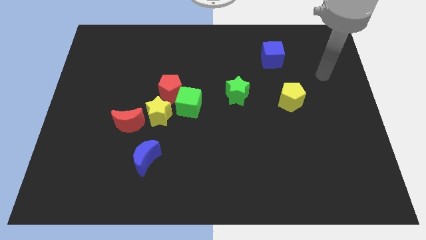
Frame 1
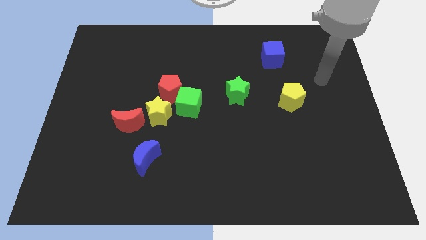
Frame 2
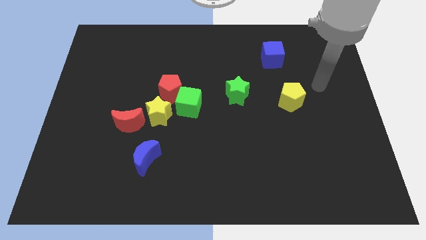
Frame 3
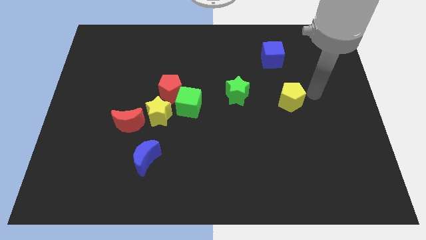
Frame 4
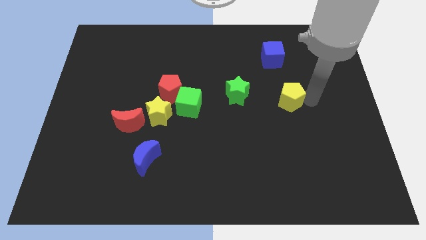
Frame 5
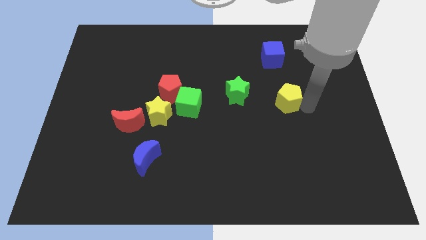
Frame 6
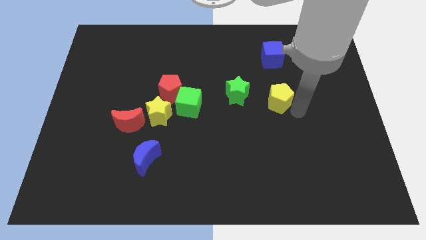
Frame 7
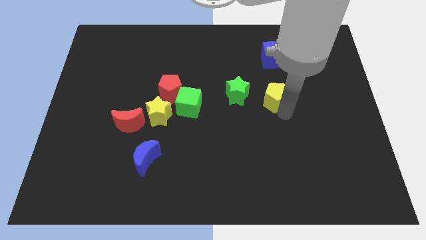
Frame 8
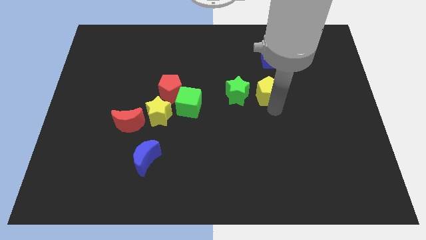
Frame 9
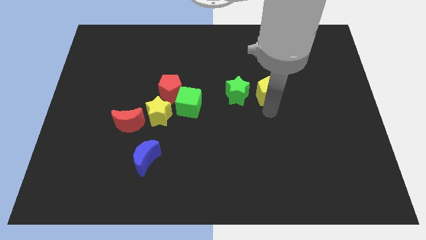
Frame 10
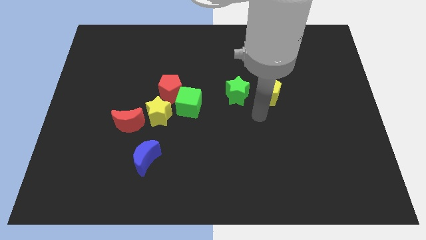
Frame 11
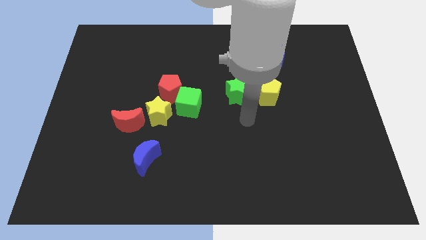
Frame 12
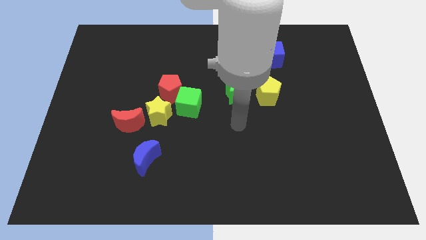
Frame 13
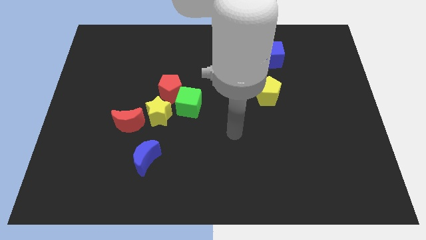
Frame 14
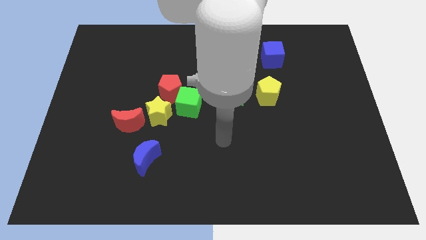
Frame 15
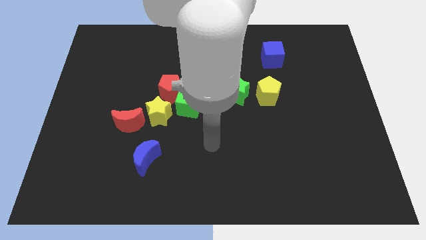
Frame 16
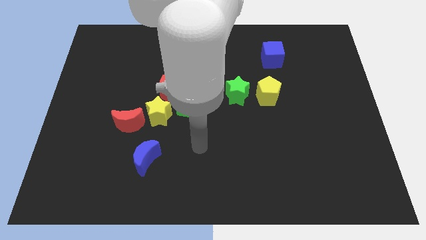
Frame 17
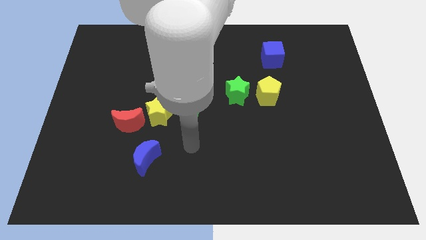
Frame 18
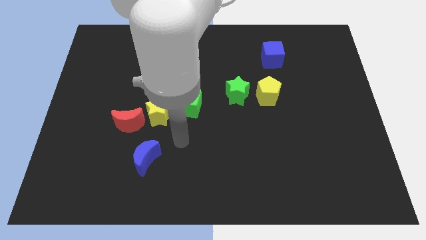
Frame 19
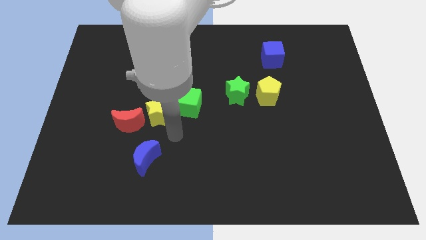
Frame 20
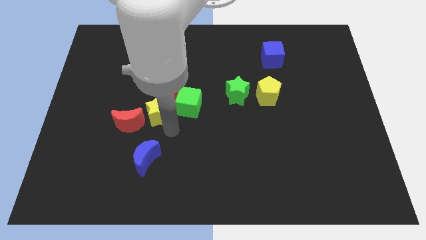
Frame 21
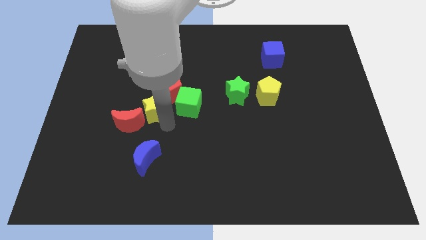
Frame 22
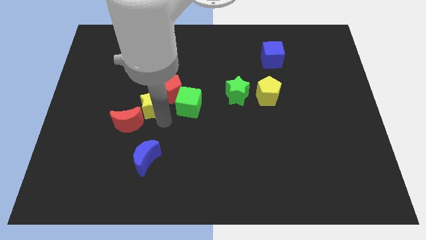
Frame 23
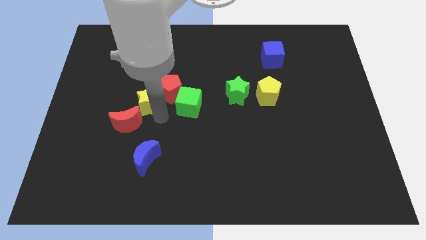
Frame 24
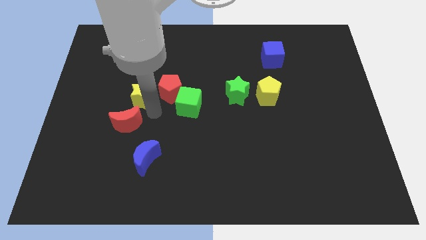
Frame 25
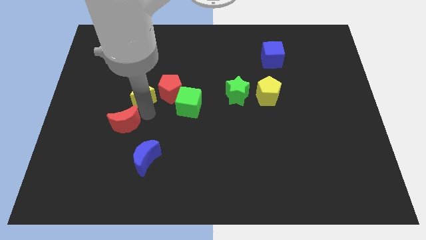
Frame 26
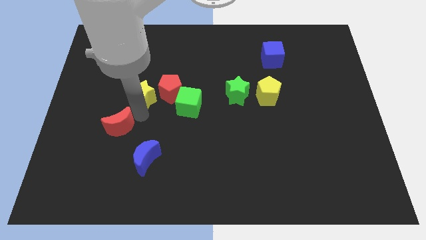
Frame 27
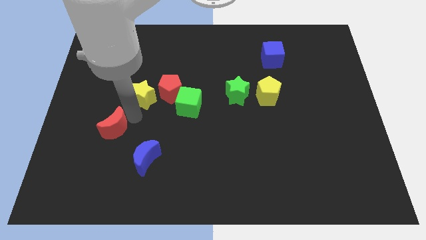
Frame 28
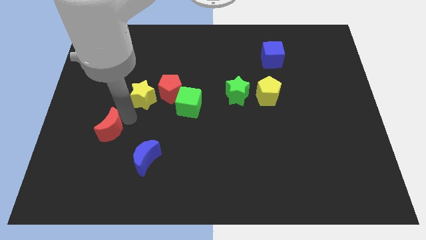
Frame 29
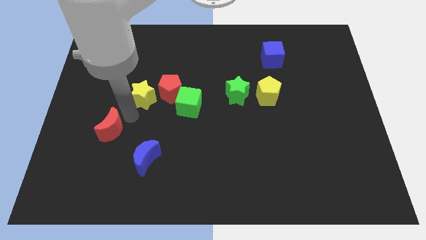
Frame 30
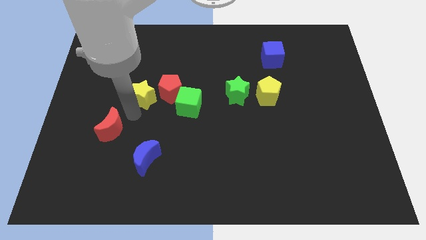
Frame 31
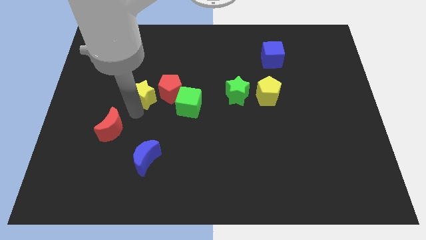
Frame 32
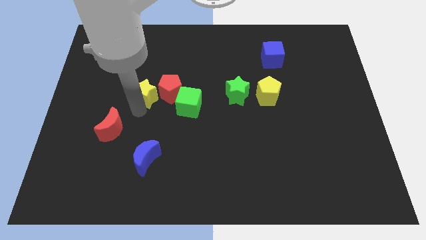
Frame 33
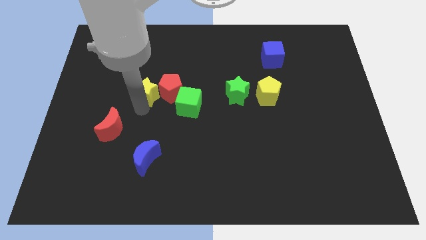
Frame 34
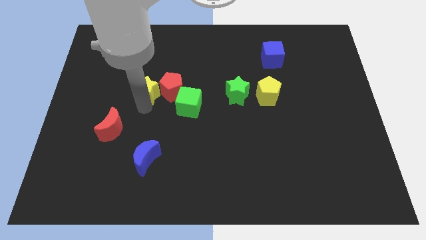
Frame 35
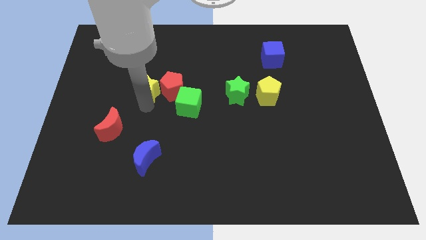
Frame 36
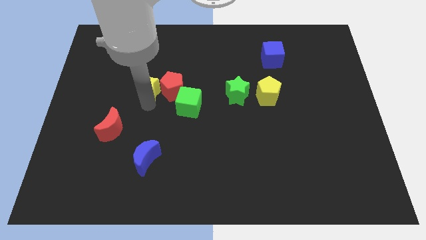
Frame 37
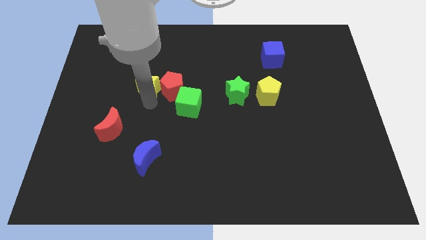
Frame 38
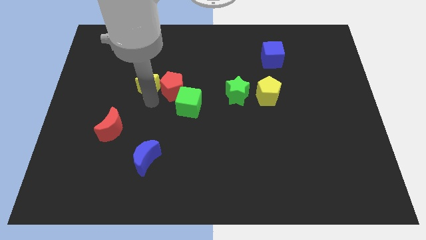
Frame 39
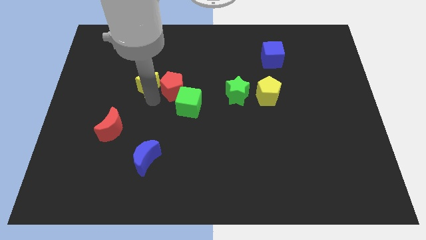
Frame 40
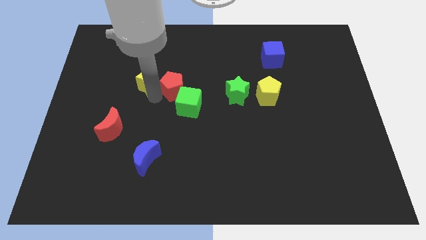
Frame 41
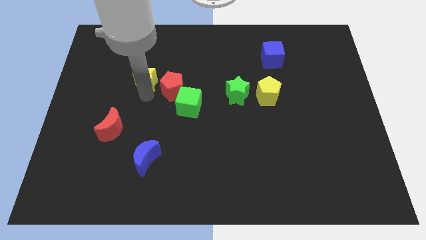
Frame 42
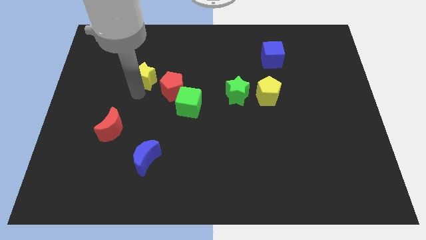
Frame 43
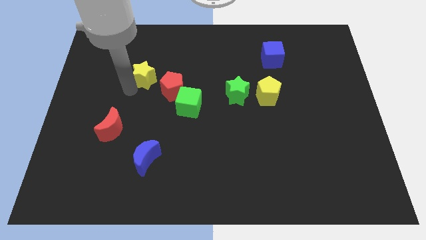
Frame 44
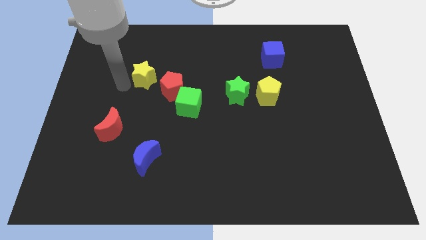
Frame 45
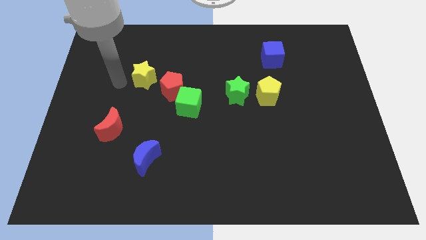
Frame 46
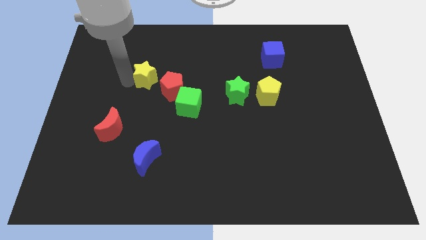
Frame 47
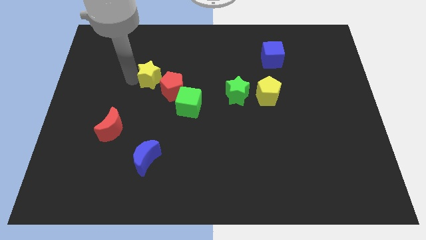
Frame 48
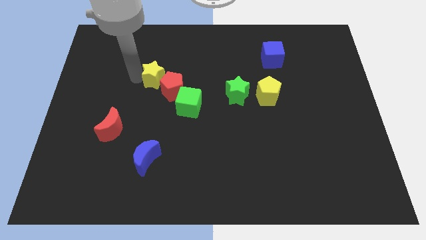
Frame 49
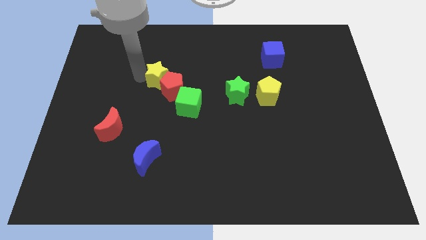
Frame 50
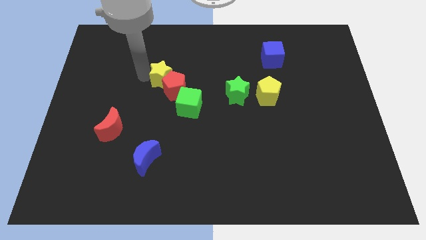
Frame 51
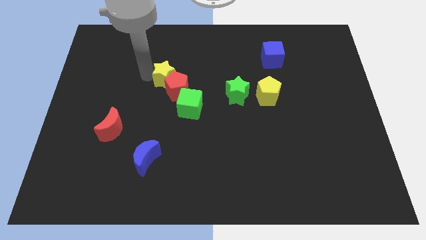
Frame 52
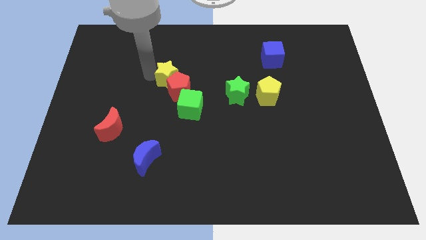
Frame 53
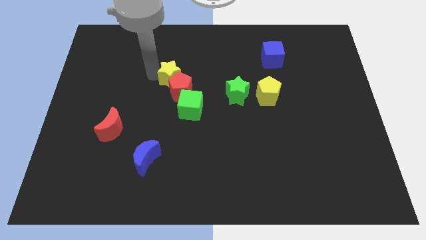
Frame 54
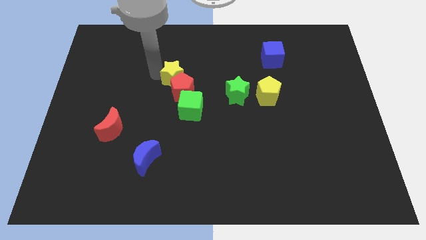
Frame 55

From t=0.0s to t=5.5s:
slide the yellow star above the green cube

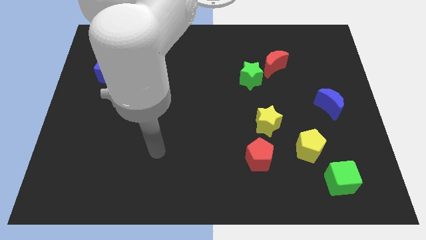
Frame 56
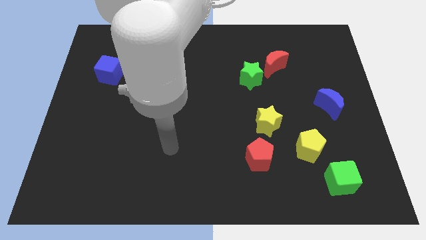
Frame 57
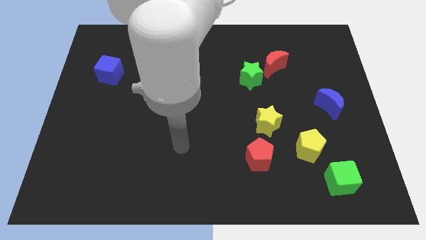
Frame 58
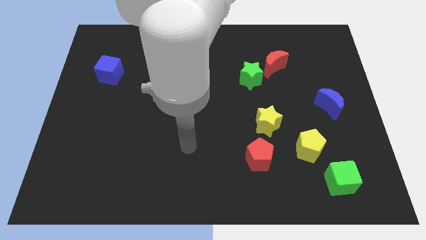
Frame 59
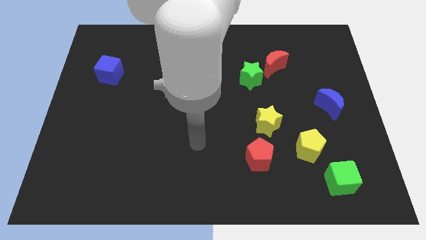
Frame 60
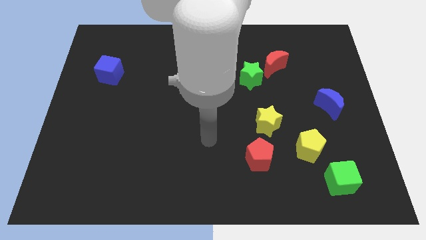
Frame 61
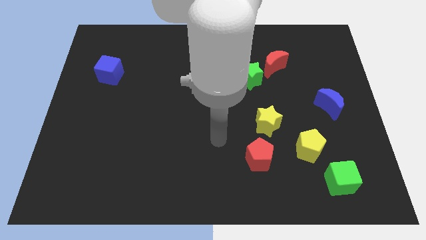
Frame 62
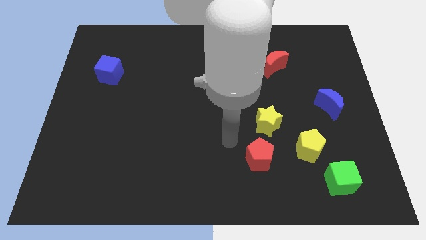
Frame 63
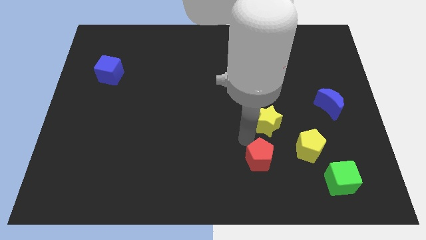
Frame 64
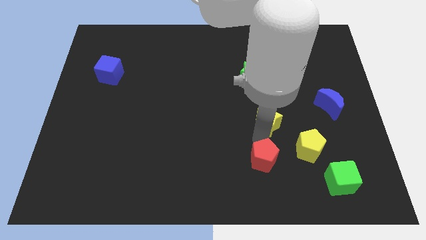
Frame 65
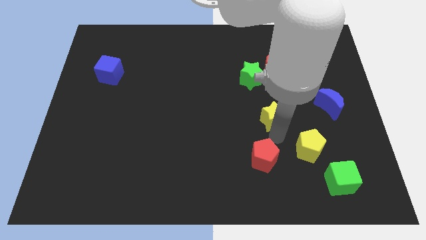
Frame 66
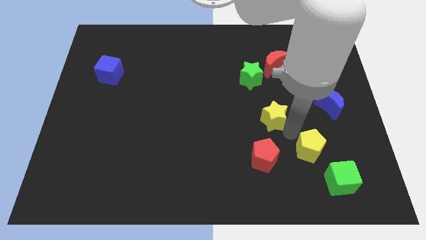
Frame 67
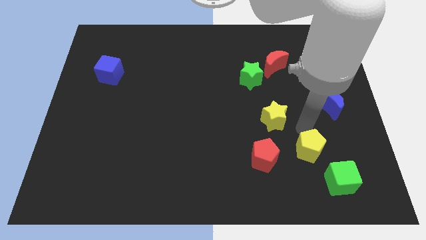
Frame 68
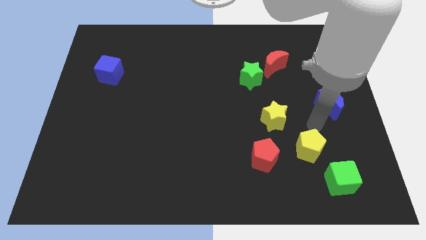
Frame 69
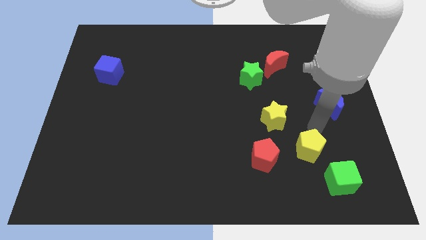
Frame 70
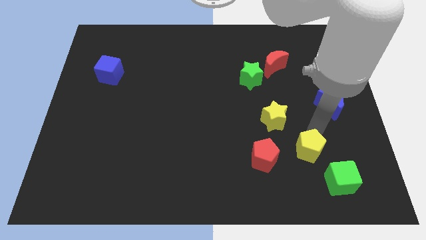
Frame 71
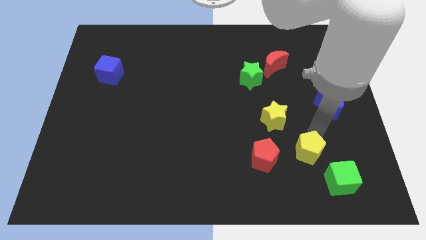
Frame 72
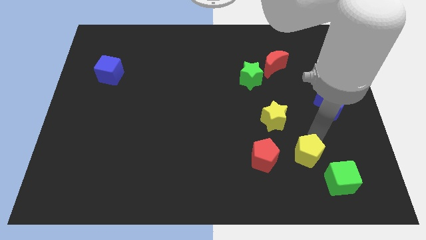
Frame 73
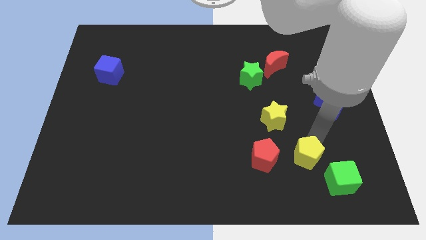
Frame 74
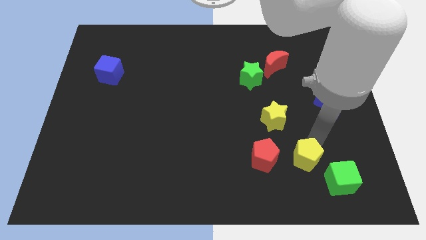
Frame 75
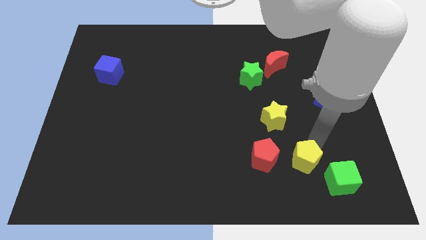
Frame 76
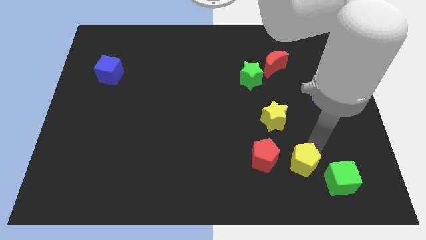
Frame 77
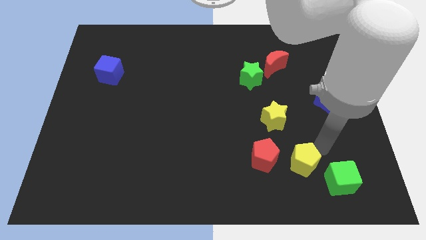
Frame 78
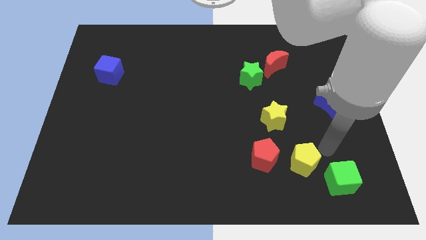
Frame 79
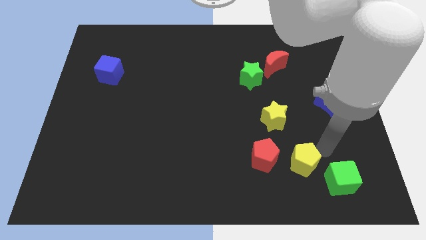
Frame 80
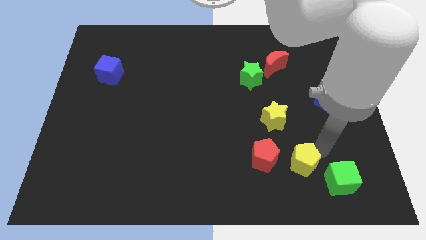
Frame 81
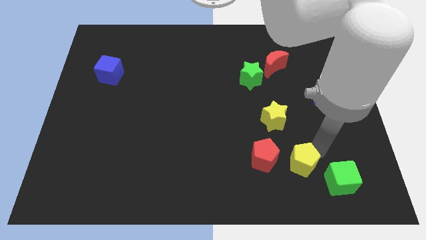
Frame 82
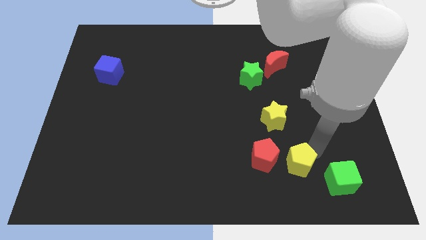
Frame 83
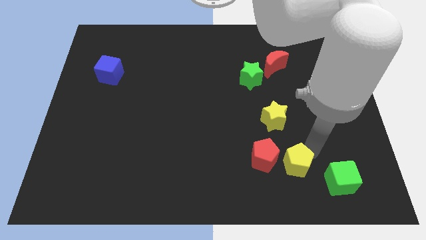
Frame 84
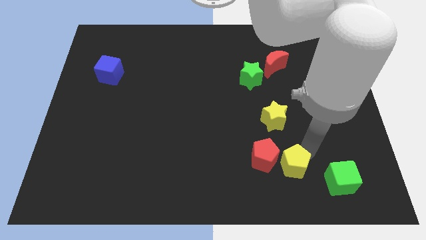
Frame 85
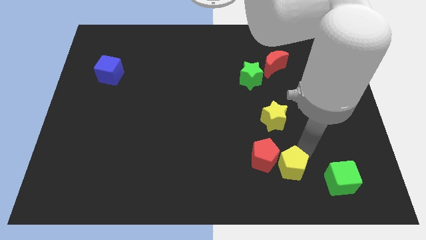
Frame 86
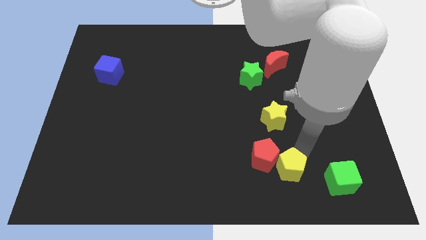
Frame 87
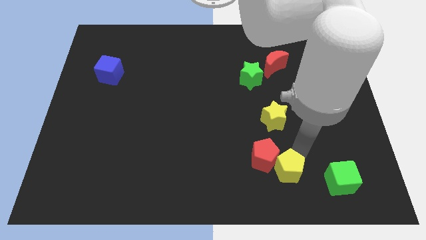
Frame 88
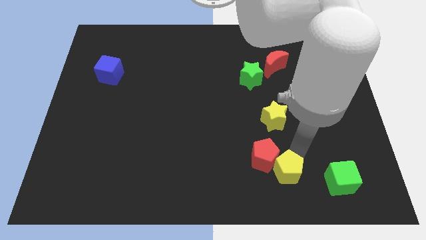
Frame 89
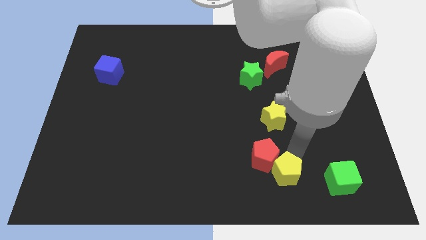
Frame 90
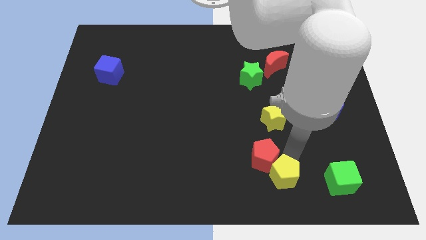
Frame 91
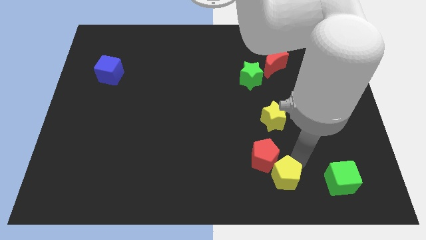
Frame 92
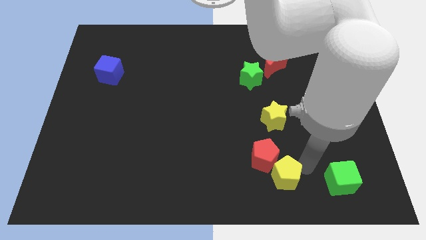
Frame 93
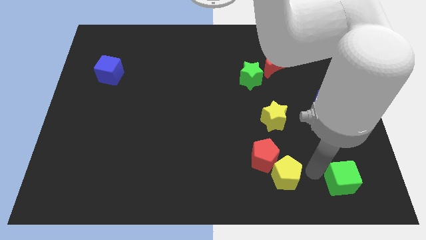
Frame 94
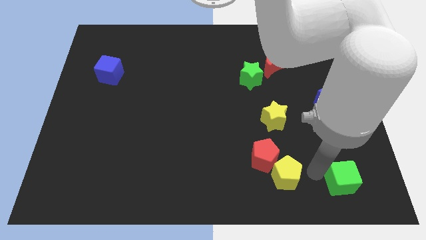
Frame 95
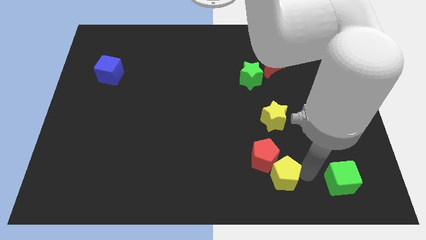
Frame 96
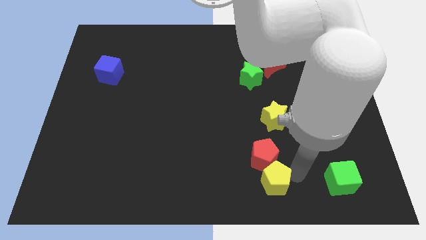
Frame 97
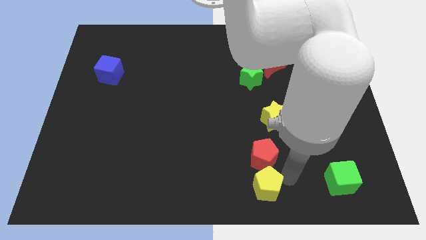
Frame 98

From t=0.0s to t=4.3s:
move the yellow pentagon to the bottom left side of the red pentagon
